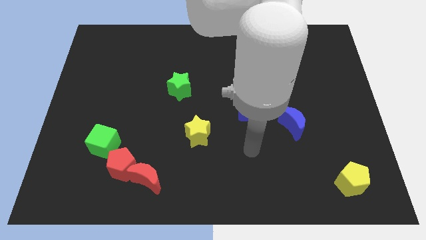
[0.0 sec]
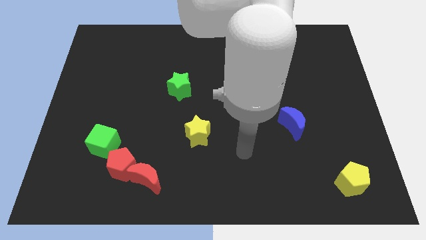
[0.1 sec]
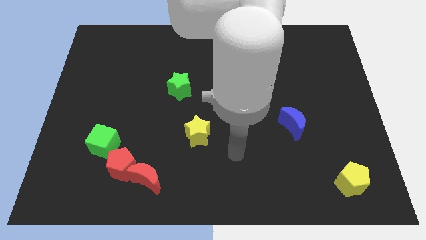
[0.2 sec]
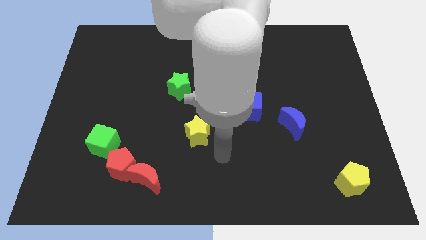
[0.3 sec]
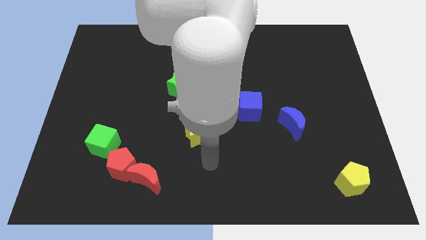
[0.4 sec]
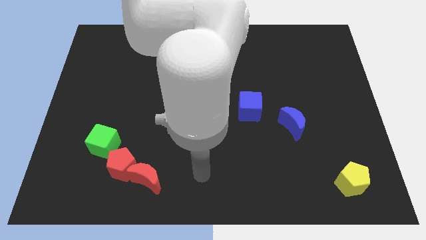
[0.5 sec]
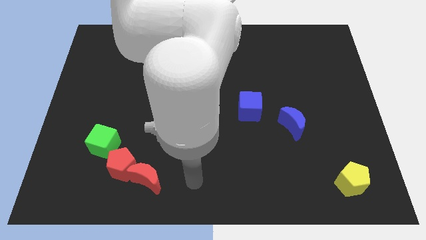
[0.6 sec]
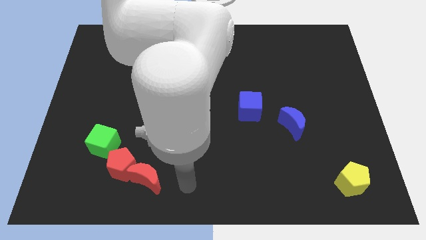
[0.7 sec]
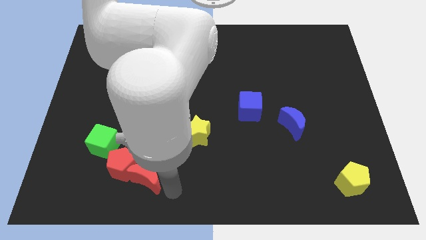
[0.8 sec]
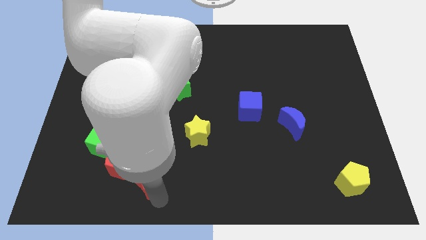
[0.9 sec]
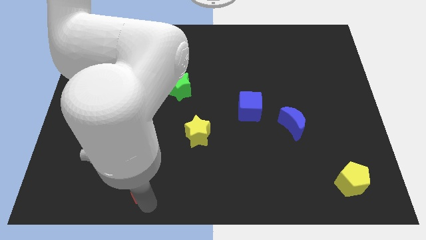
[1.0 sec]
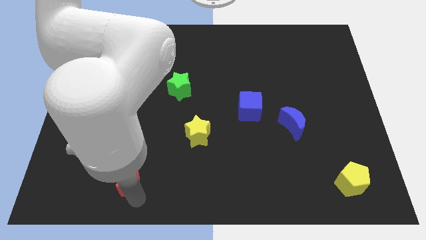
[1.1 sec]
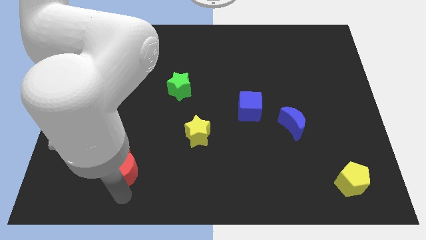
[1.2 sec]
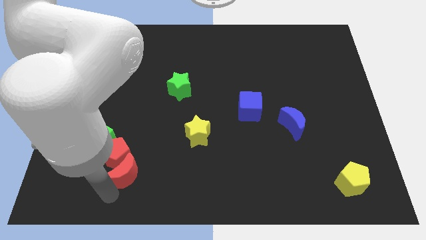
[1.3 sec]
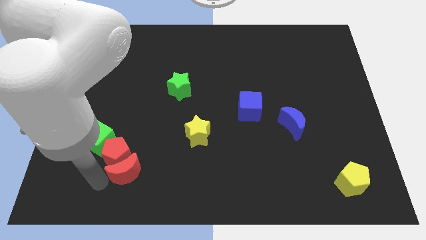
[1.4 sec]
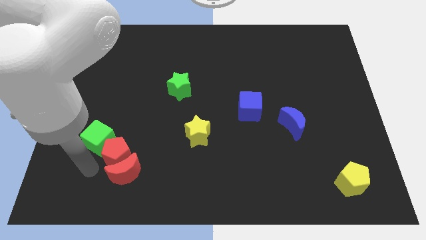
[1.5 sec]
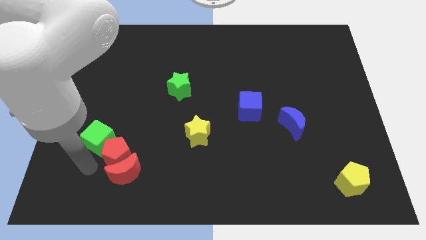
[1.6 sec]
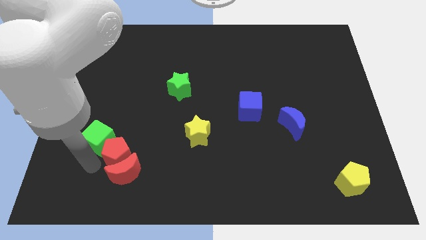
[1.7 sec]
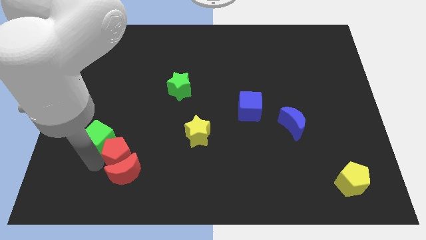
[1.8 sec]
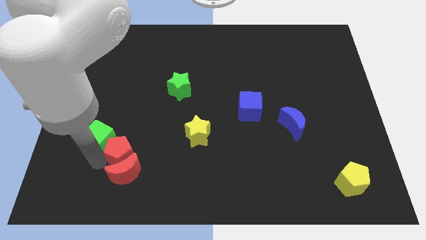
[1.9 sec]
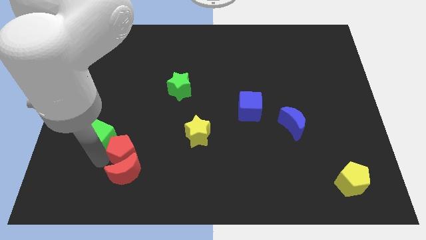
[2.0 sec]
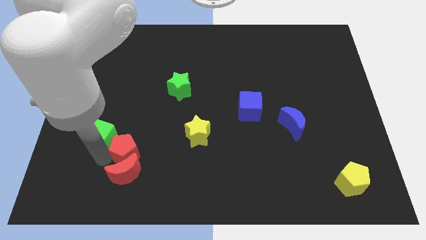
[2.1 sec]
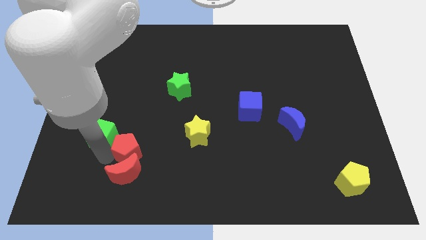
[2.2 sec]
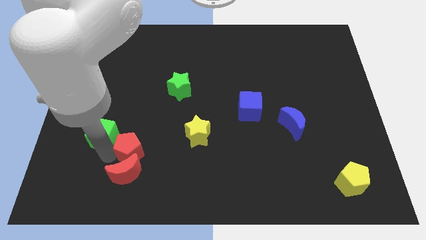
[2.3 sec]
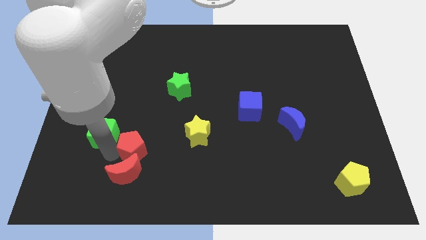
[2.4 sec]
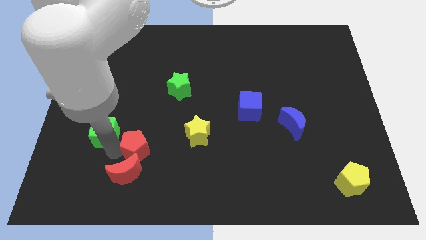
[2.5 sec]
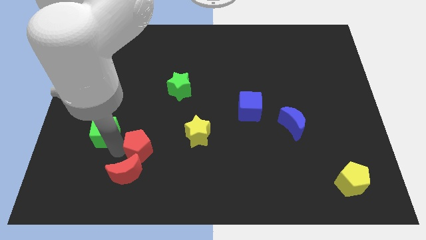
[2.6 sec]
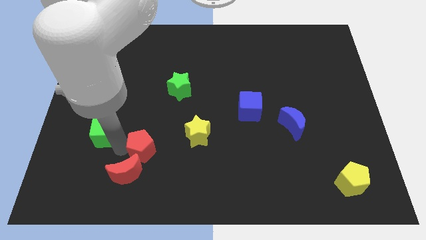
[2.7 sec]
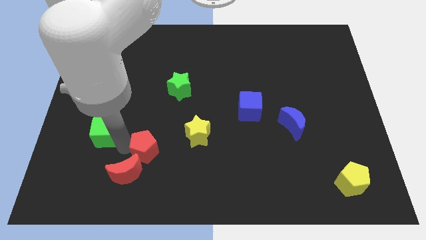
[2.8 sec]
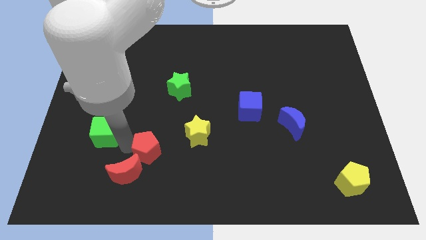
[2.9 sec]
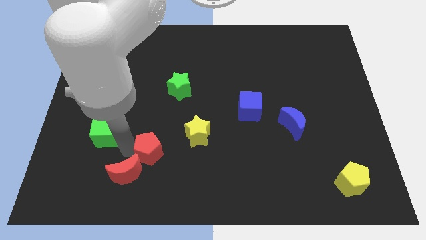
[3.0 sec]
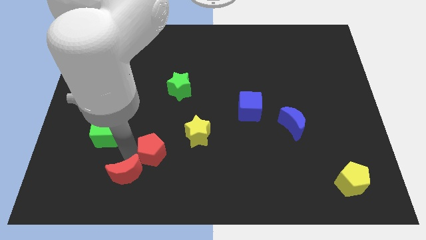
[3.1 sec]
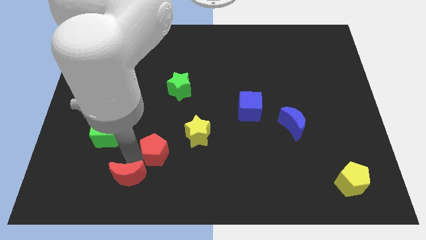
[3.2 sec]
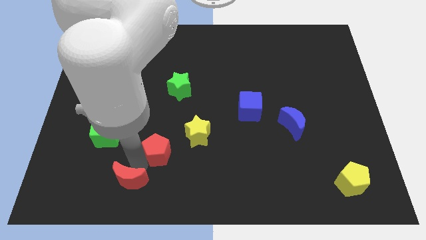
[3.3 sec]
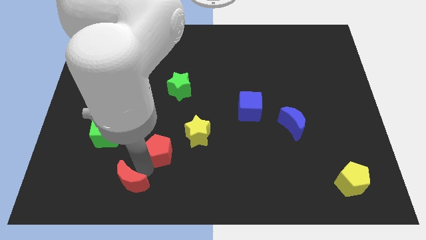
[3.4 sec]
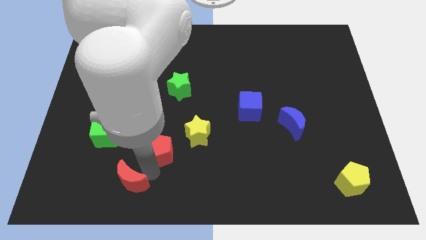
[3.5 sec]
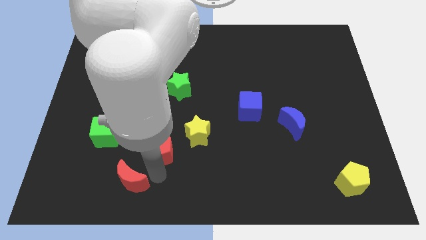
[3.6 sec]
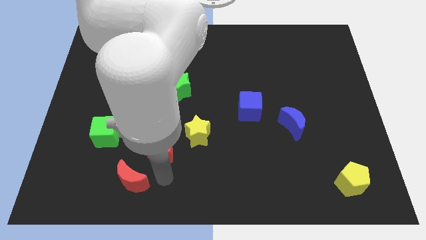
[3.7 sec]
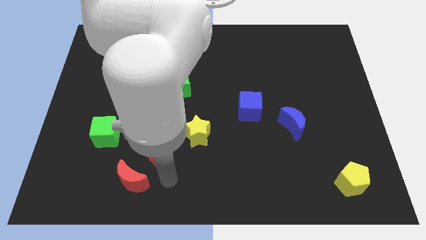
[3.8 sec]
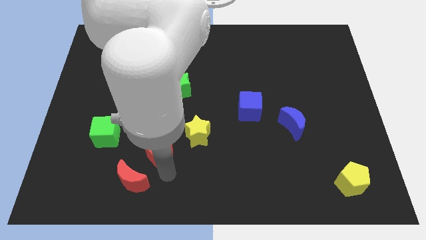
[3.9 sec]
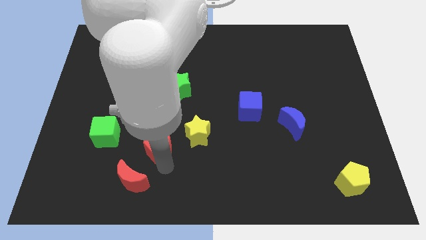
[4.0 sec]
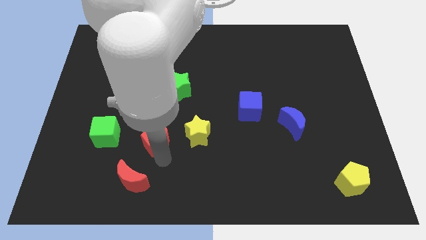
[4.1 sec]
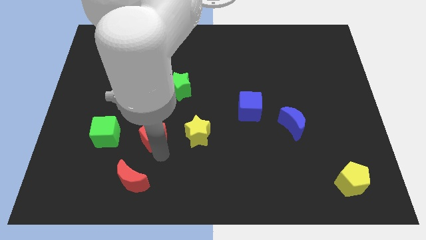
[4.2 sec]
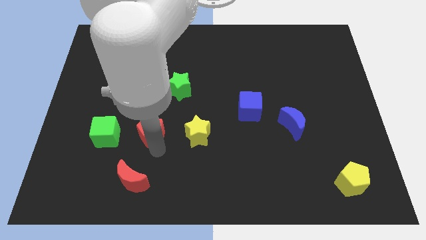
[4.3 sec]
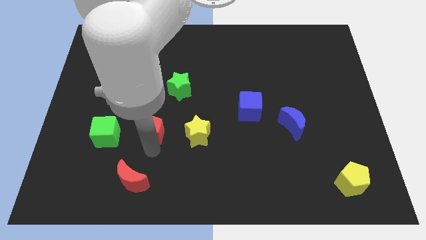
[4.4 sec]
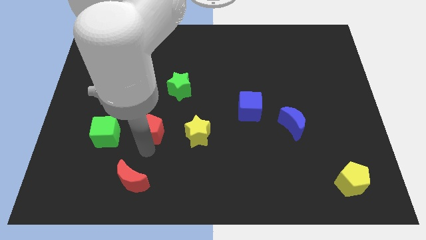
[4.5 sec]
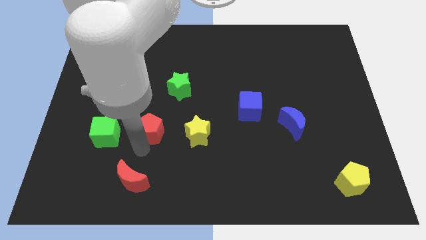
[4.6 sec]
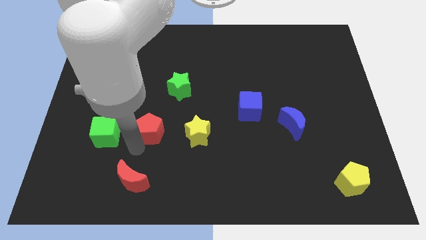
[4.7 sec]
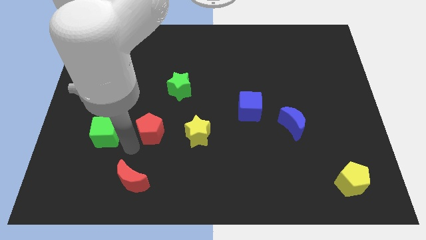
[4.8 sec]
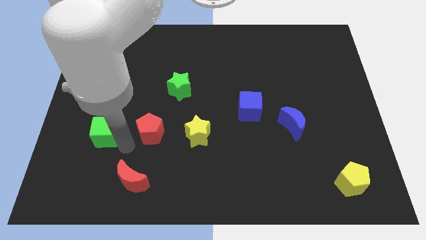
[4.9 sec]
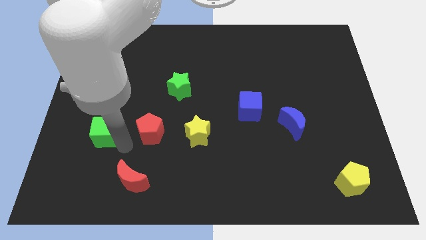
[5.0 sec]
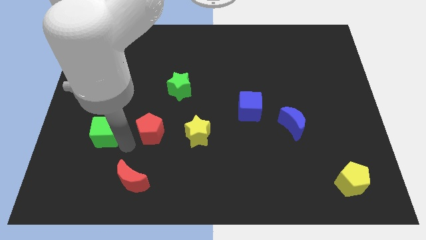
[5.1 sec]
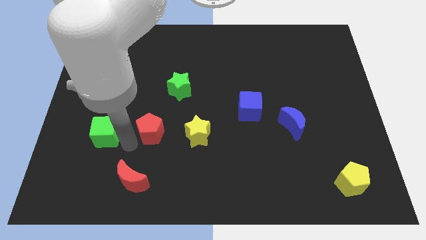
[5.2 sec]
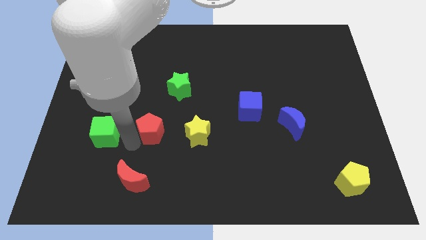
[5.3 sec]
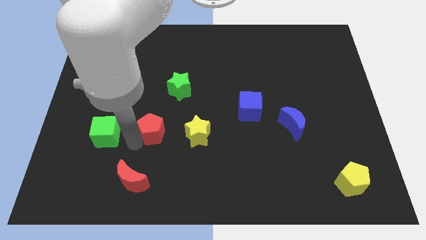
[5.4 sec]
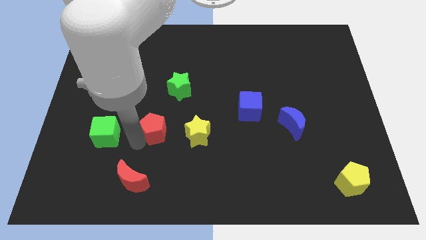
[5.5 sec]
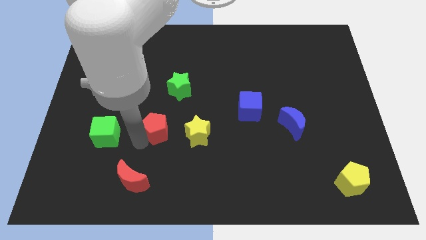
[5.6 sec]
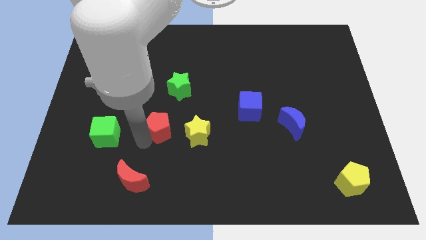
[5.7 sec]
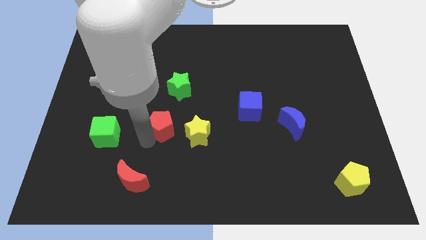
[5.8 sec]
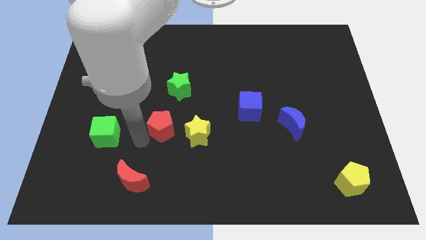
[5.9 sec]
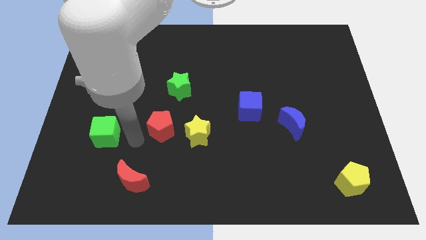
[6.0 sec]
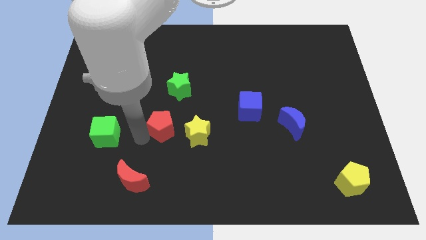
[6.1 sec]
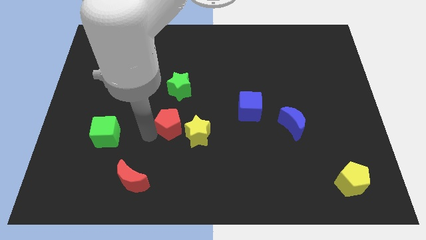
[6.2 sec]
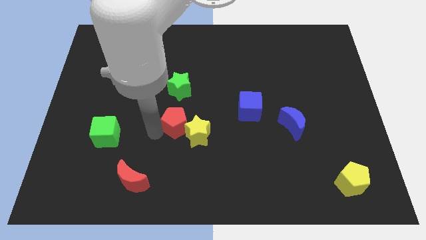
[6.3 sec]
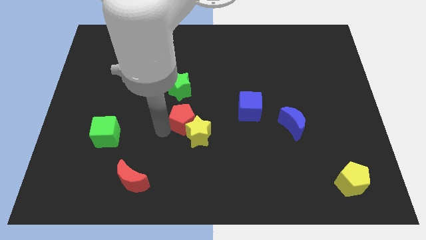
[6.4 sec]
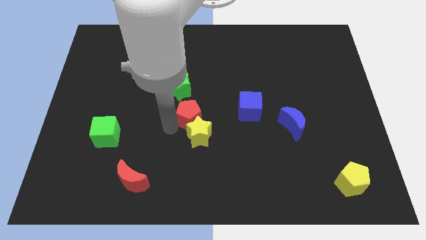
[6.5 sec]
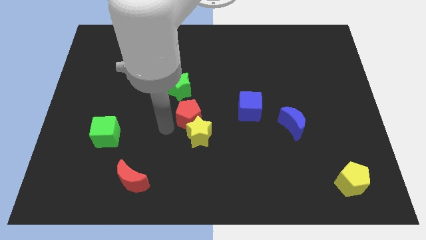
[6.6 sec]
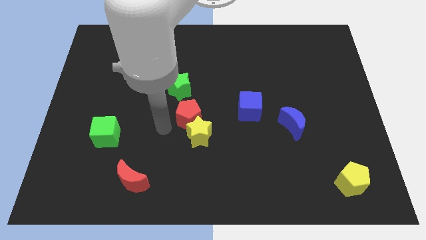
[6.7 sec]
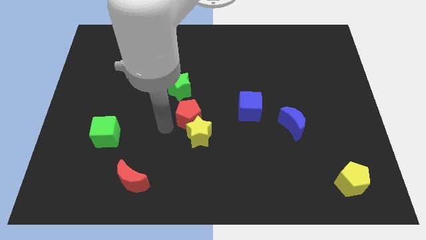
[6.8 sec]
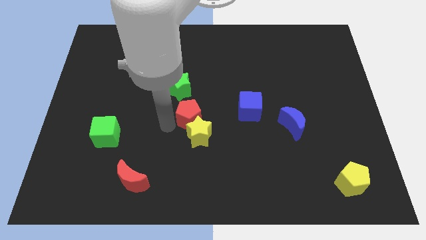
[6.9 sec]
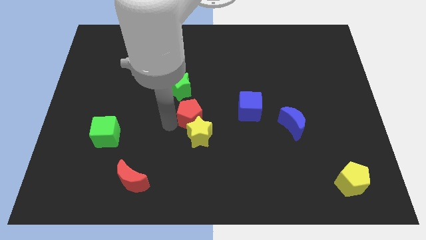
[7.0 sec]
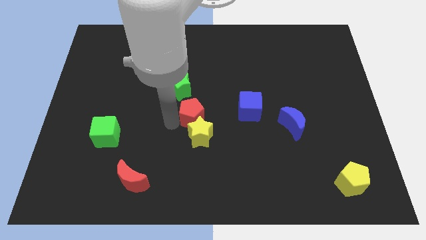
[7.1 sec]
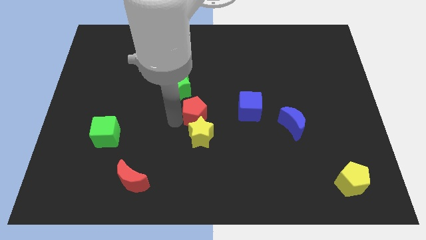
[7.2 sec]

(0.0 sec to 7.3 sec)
slide the red pentagon diagonally up and right

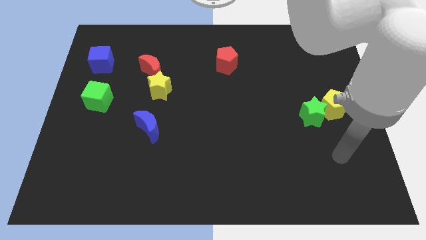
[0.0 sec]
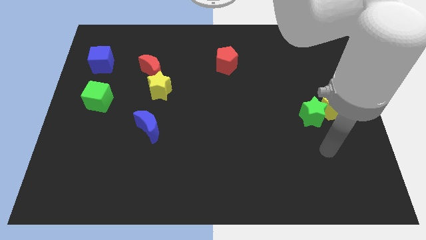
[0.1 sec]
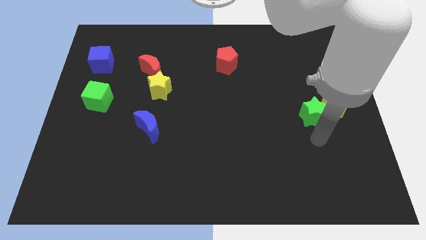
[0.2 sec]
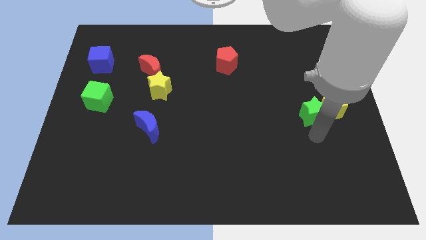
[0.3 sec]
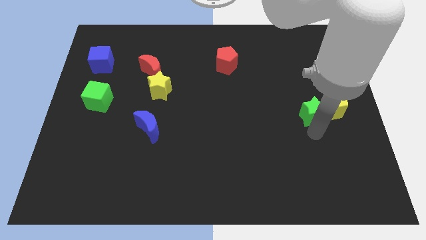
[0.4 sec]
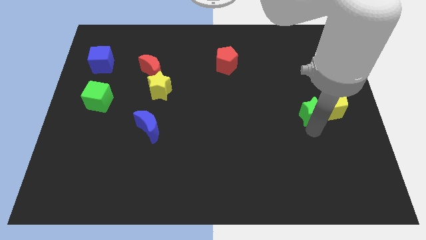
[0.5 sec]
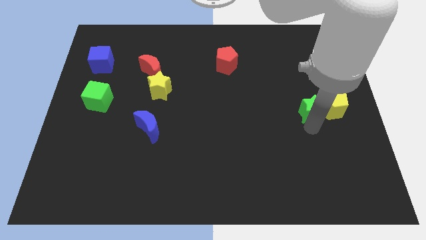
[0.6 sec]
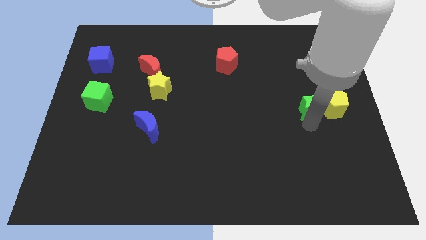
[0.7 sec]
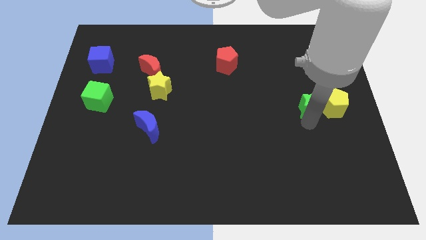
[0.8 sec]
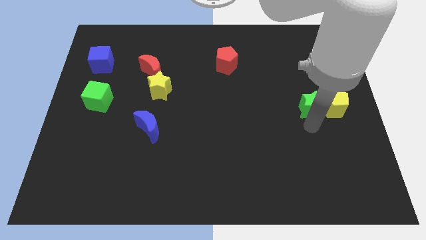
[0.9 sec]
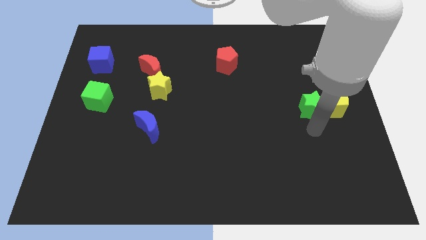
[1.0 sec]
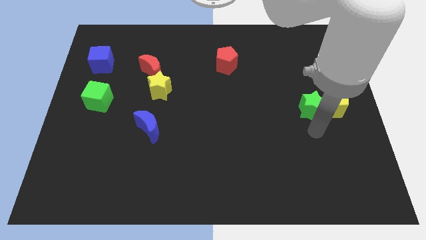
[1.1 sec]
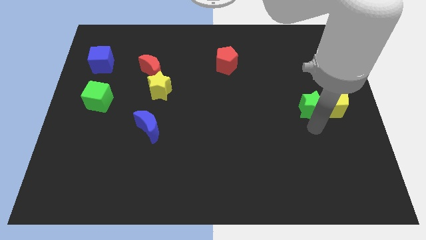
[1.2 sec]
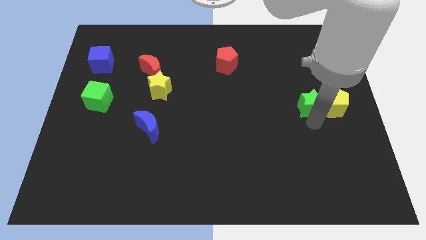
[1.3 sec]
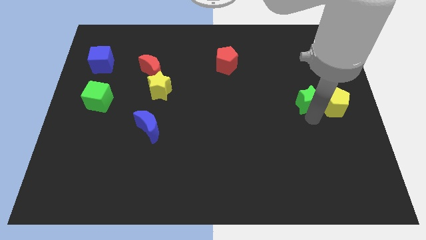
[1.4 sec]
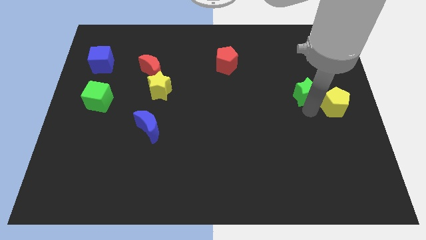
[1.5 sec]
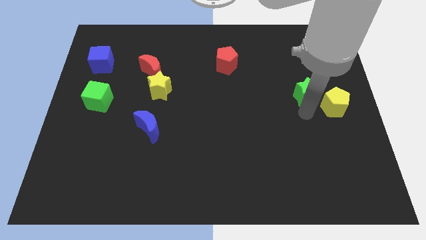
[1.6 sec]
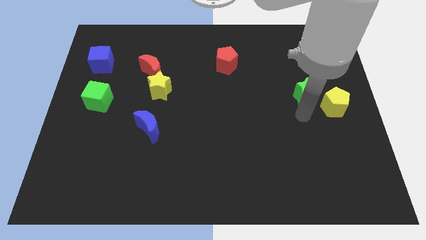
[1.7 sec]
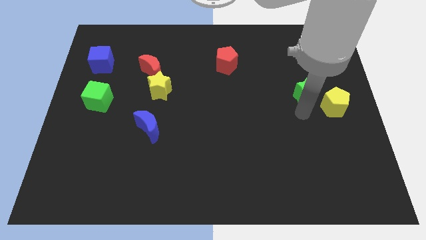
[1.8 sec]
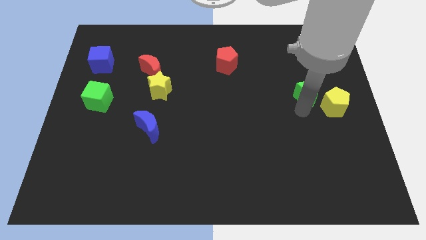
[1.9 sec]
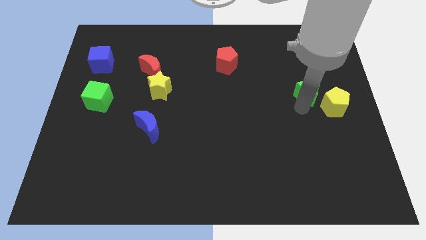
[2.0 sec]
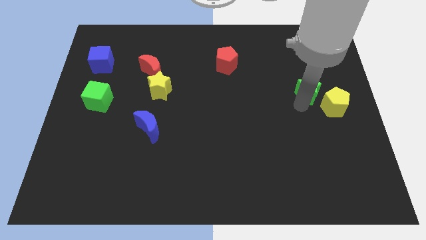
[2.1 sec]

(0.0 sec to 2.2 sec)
push the green star up a bit
